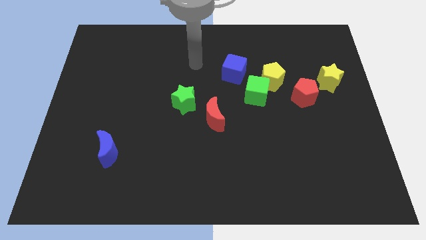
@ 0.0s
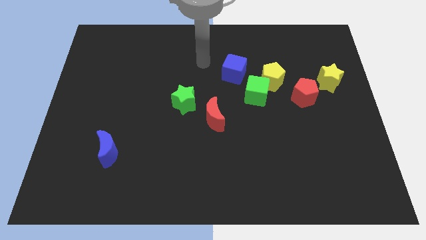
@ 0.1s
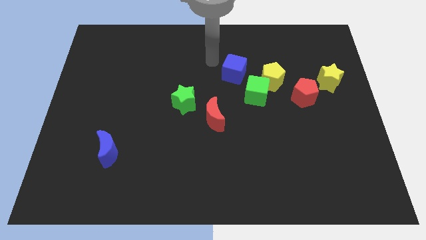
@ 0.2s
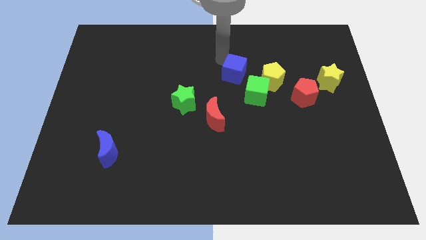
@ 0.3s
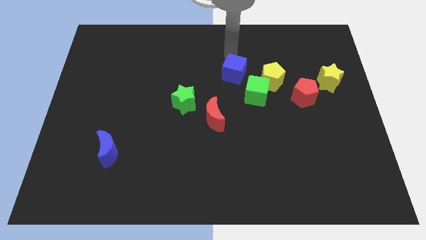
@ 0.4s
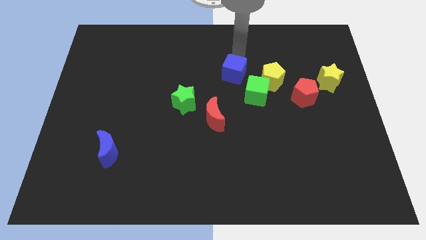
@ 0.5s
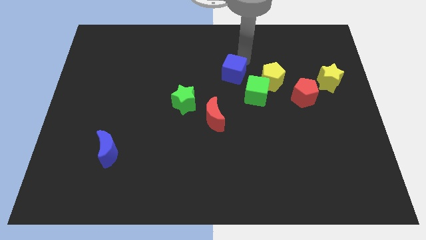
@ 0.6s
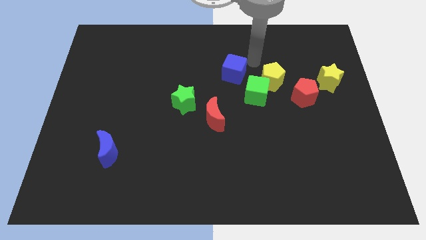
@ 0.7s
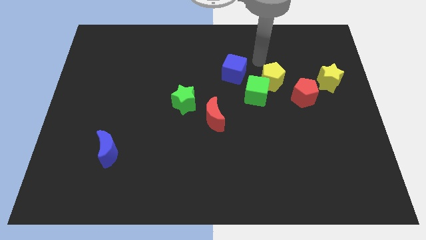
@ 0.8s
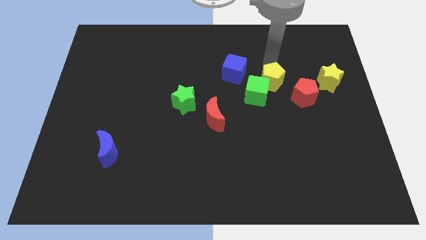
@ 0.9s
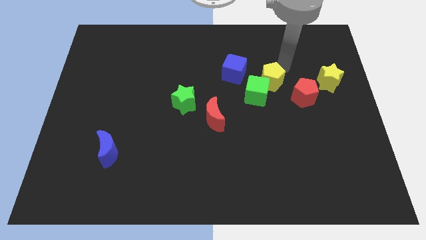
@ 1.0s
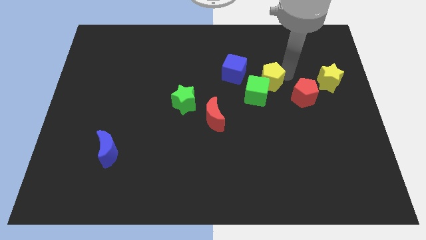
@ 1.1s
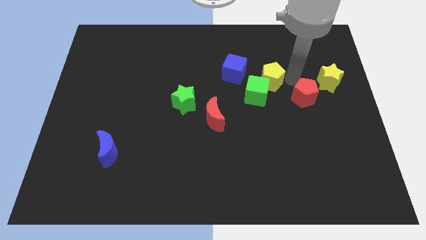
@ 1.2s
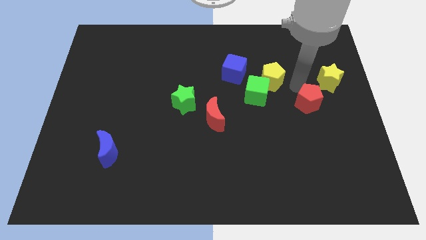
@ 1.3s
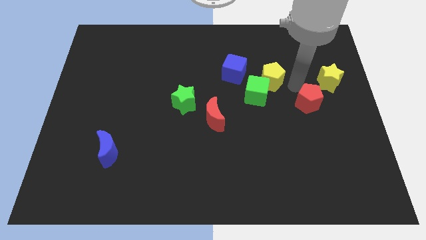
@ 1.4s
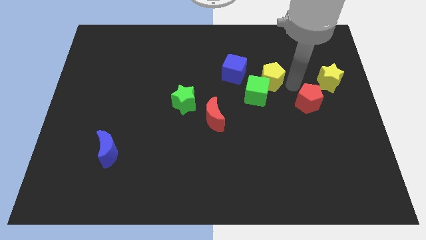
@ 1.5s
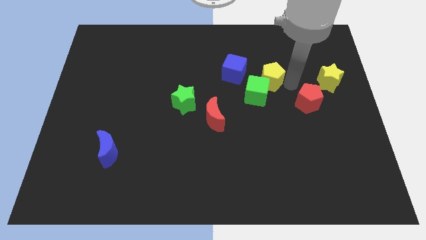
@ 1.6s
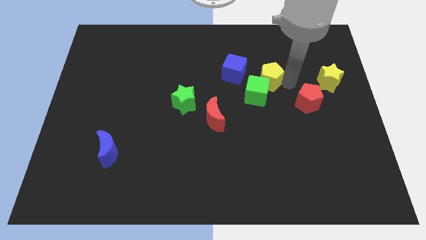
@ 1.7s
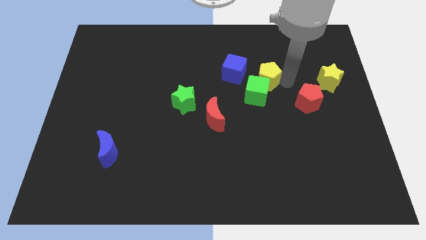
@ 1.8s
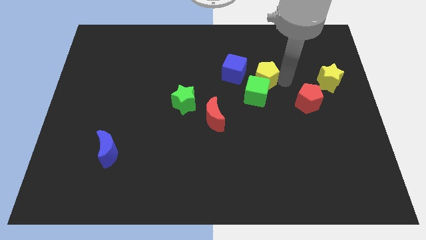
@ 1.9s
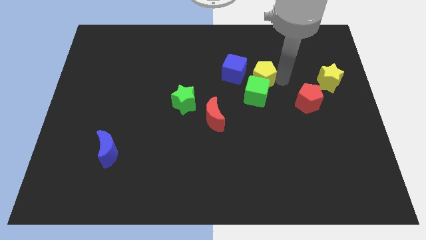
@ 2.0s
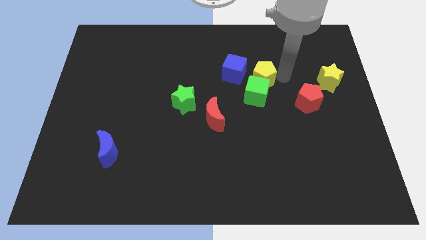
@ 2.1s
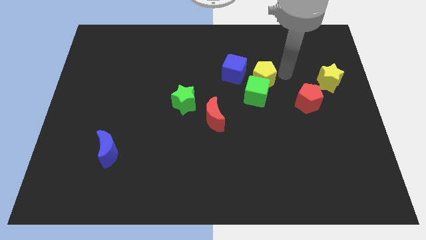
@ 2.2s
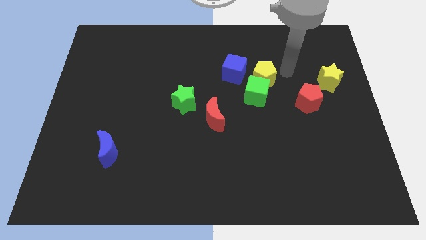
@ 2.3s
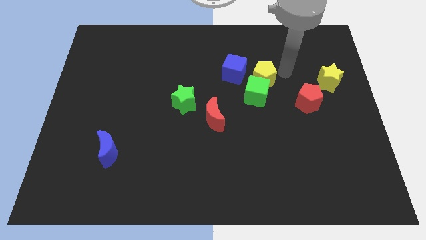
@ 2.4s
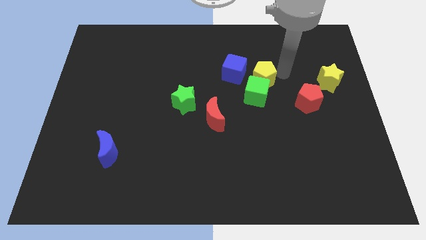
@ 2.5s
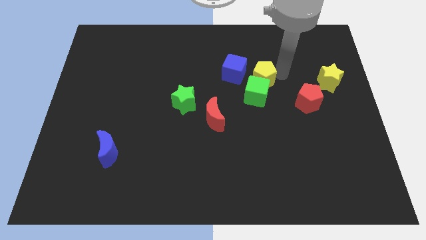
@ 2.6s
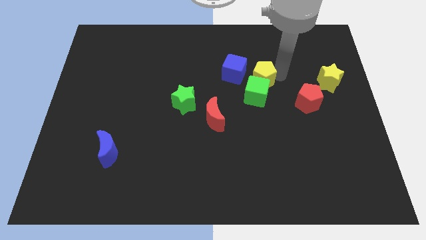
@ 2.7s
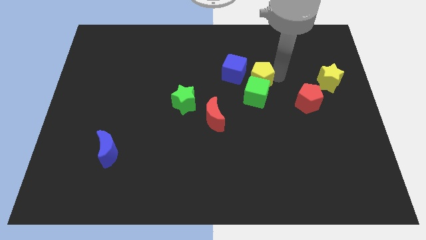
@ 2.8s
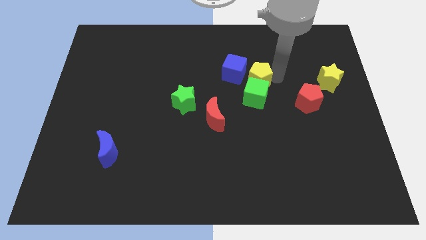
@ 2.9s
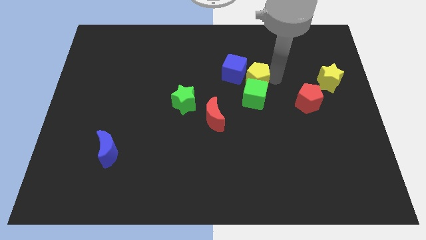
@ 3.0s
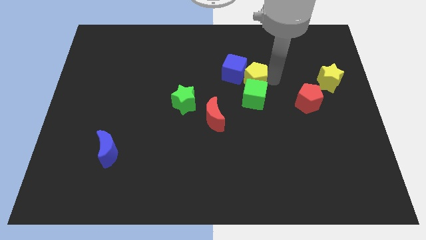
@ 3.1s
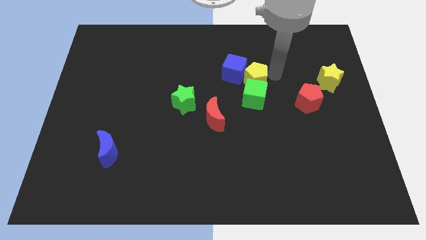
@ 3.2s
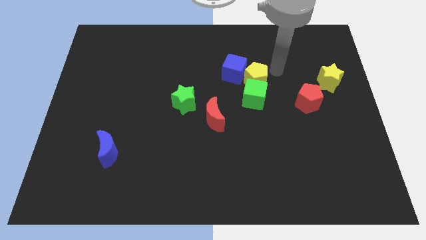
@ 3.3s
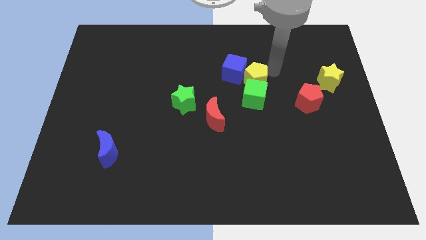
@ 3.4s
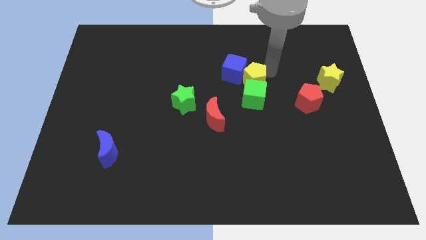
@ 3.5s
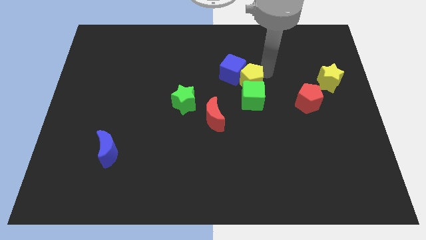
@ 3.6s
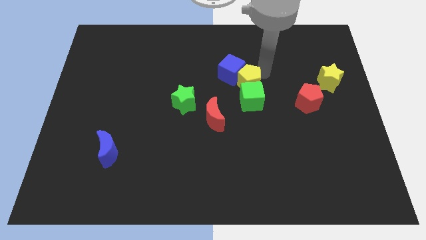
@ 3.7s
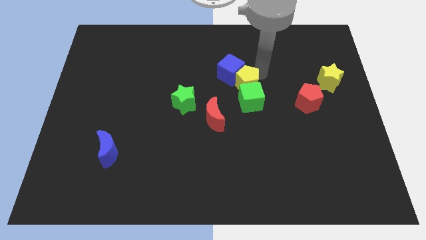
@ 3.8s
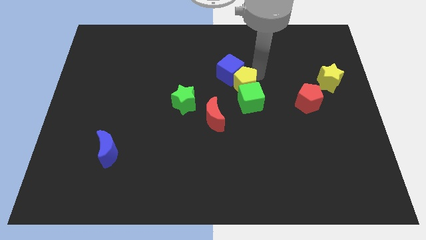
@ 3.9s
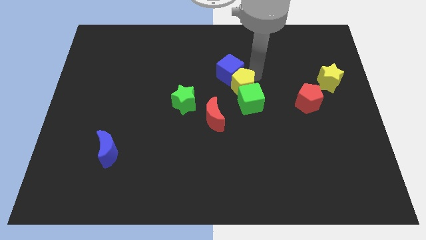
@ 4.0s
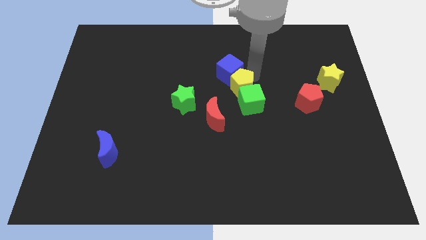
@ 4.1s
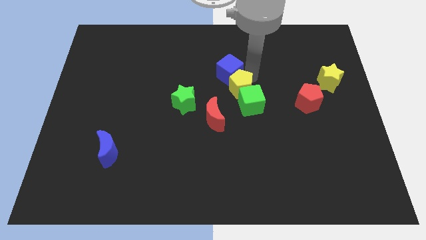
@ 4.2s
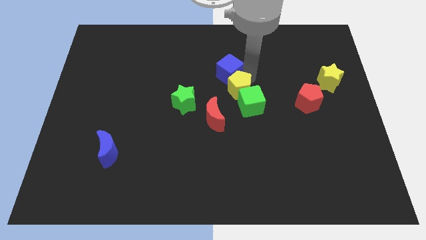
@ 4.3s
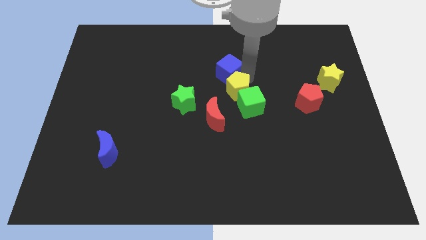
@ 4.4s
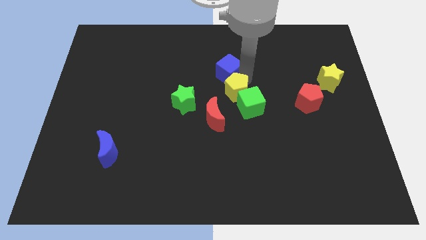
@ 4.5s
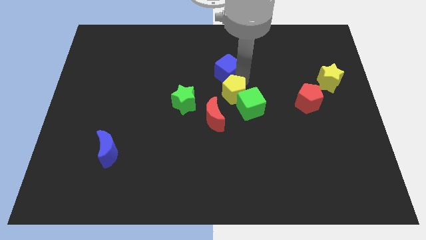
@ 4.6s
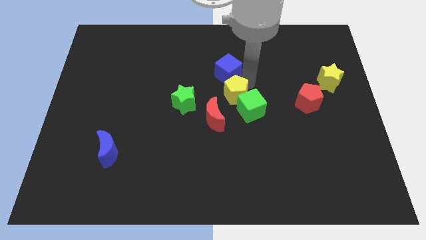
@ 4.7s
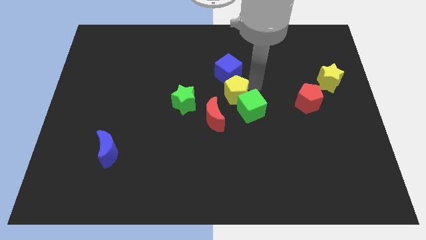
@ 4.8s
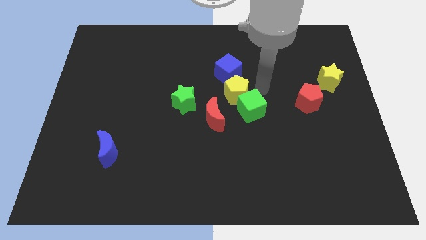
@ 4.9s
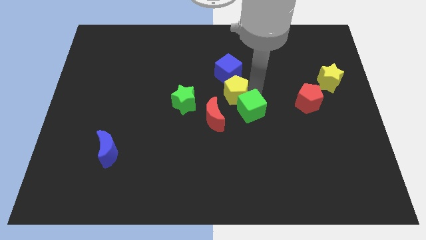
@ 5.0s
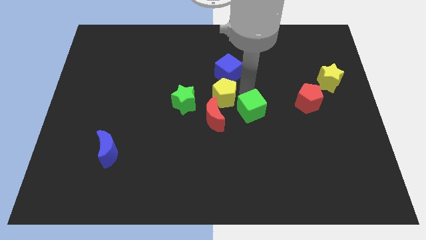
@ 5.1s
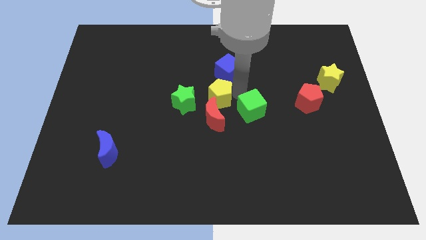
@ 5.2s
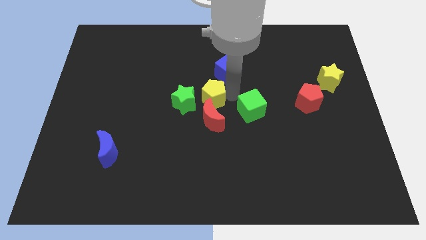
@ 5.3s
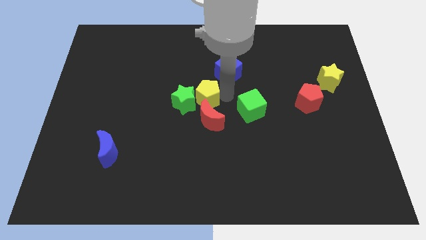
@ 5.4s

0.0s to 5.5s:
move the yellow pentagon to the green star

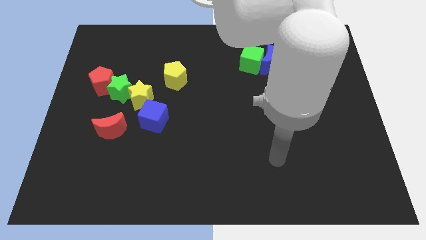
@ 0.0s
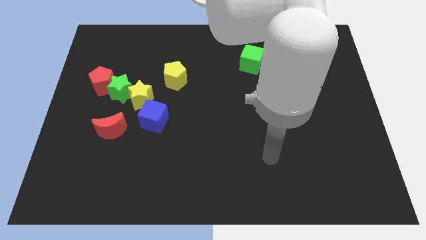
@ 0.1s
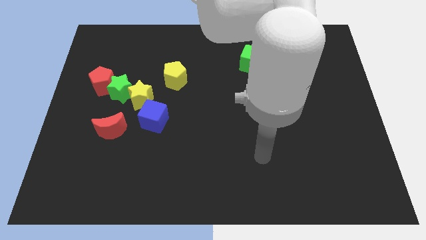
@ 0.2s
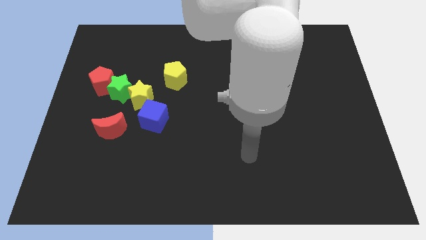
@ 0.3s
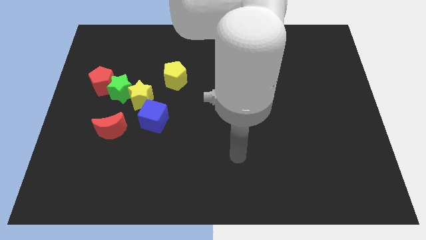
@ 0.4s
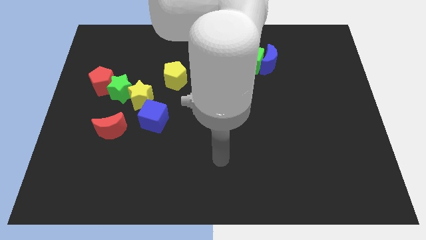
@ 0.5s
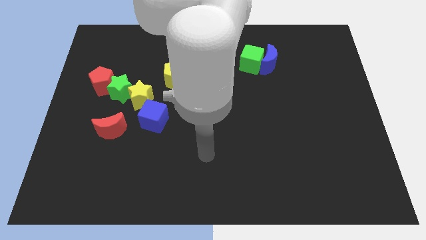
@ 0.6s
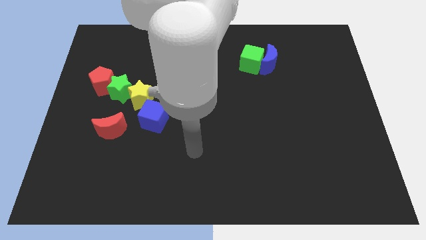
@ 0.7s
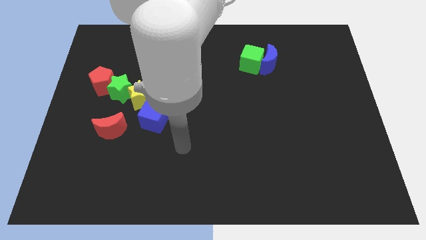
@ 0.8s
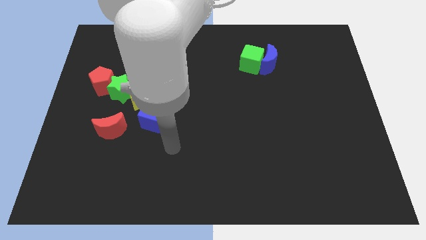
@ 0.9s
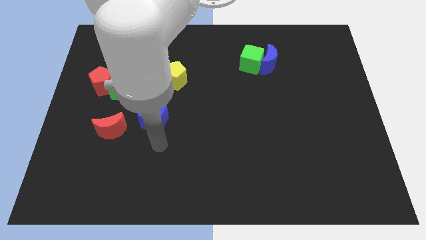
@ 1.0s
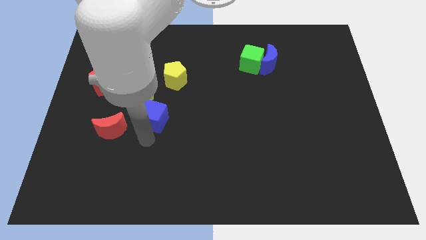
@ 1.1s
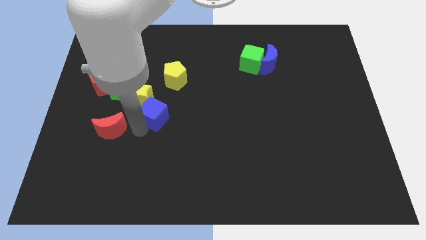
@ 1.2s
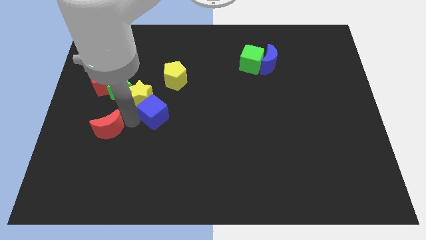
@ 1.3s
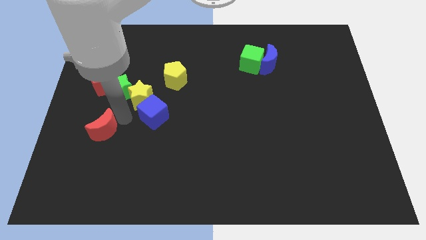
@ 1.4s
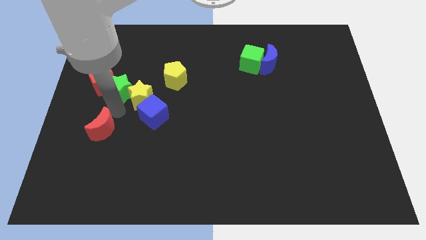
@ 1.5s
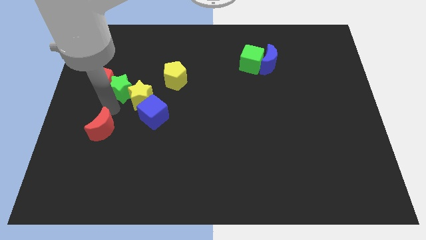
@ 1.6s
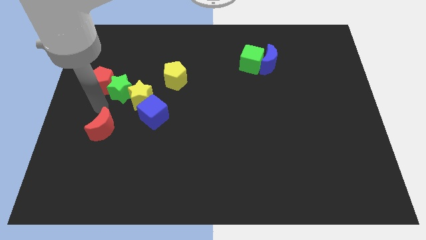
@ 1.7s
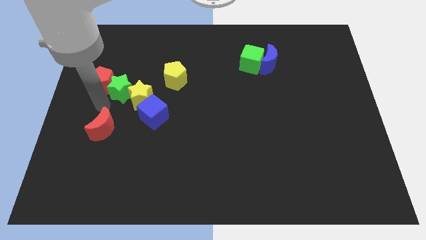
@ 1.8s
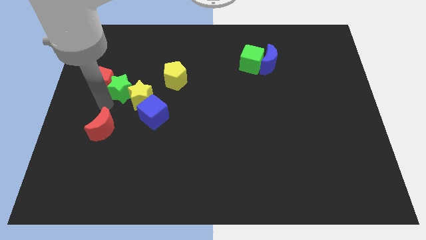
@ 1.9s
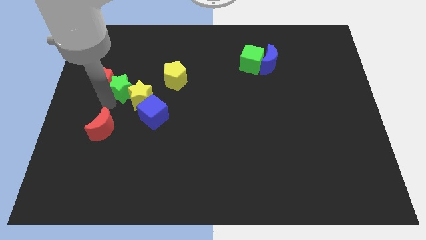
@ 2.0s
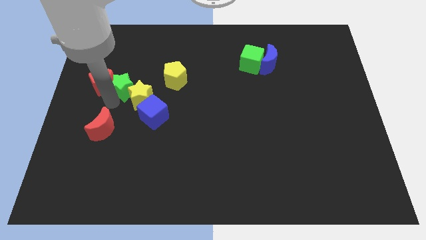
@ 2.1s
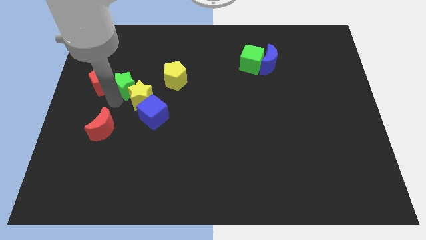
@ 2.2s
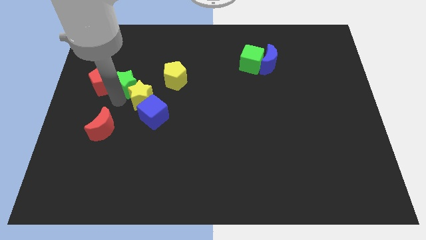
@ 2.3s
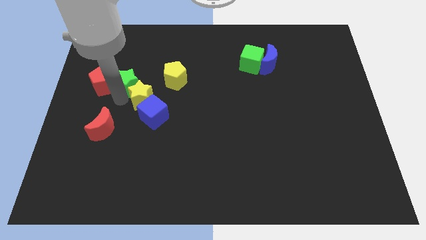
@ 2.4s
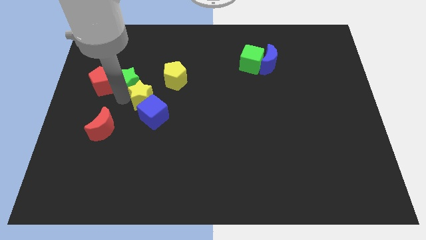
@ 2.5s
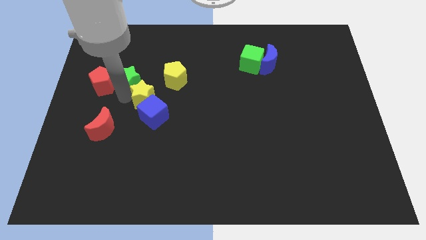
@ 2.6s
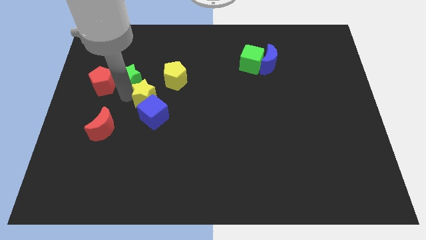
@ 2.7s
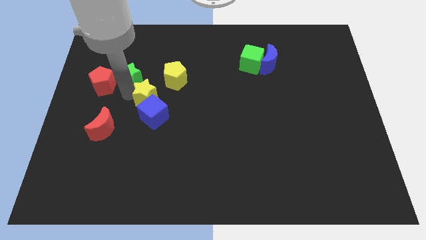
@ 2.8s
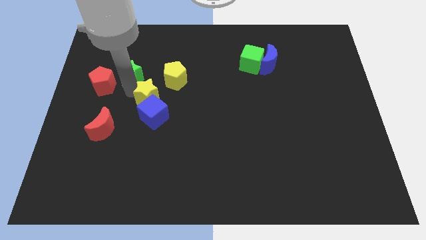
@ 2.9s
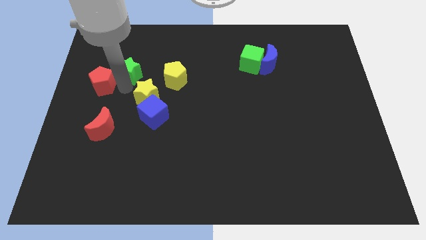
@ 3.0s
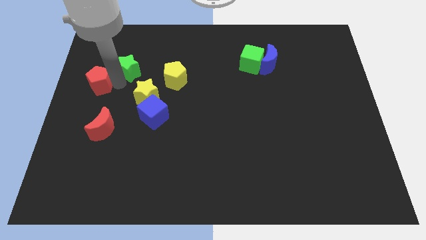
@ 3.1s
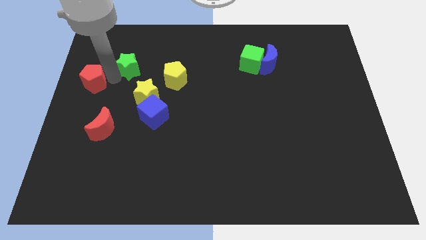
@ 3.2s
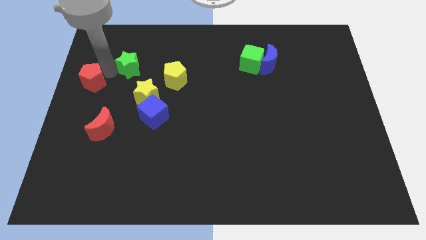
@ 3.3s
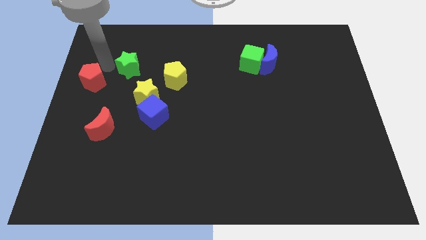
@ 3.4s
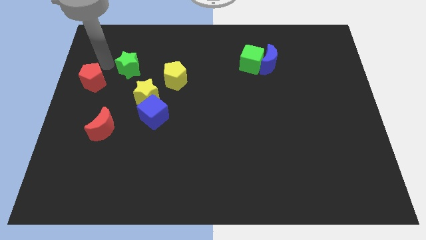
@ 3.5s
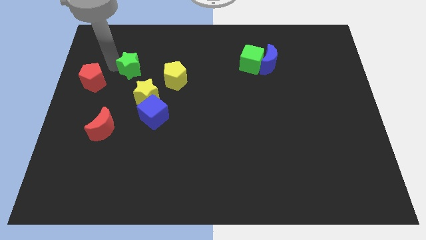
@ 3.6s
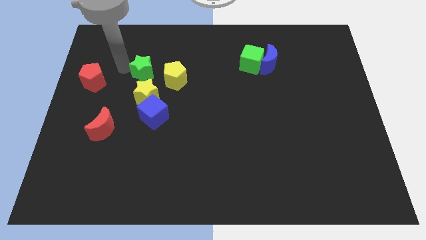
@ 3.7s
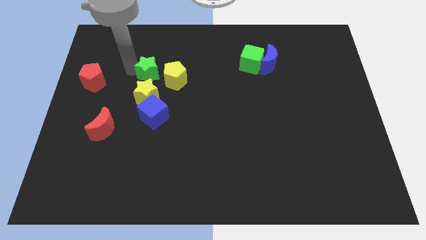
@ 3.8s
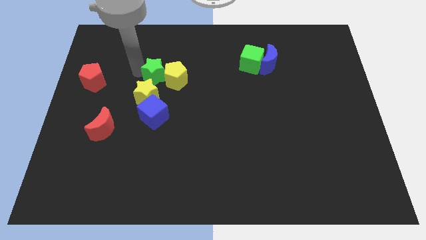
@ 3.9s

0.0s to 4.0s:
slide the green star towards the yellow pentagon
